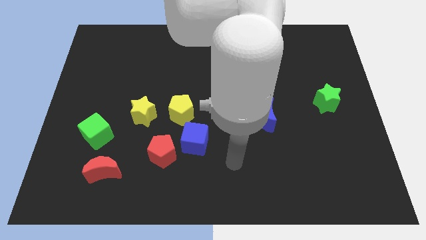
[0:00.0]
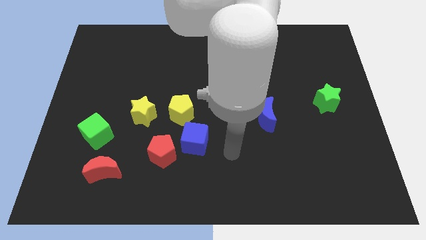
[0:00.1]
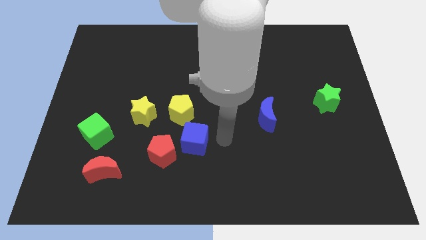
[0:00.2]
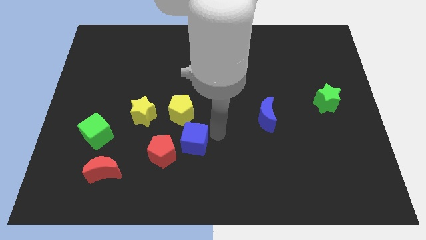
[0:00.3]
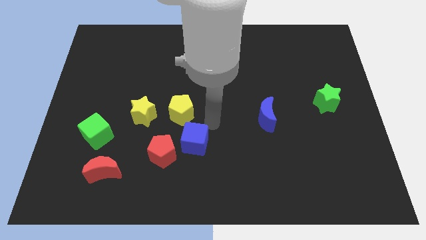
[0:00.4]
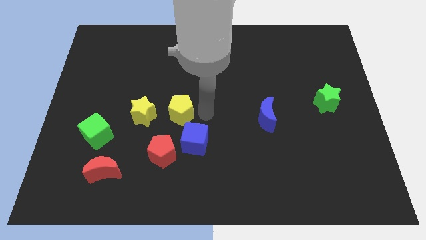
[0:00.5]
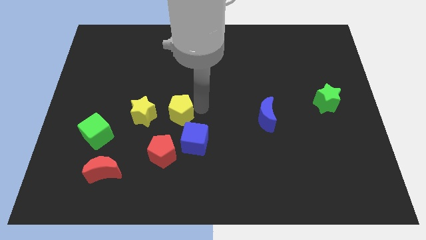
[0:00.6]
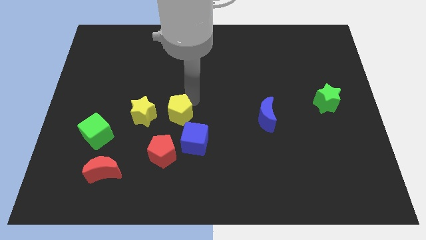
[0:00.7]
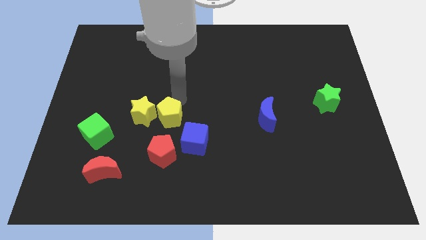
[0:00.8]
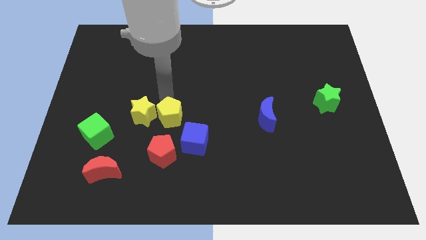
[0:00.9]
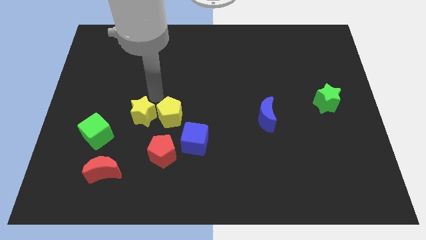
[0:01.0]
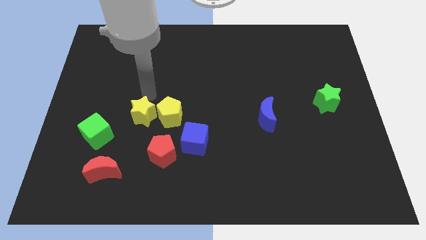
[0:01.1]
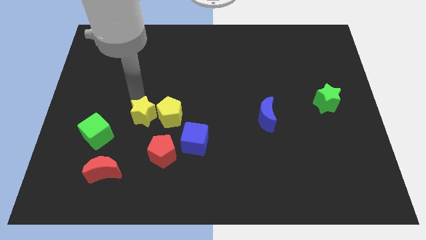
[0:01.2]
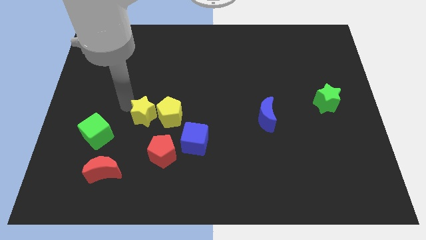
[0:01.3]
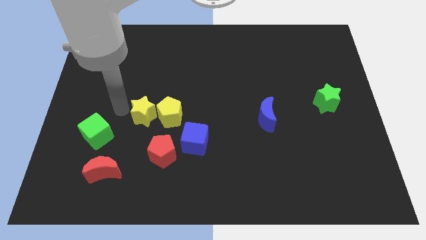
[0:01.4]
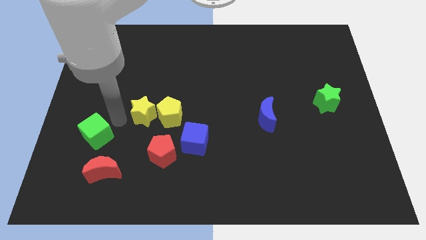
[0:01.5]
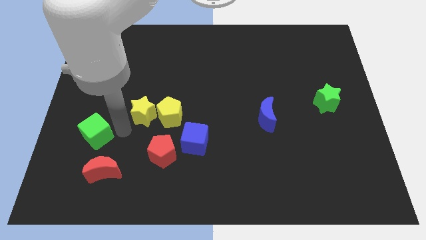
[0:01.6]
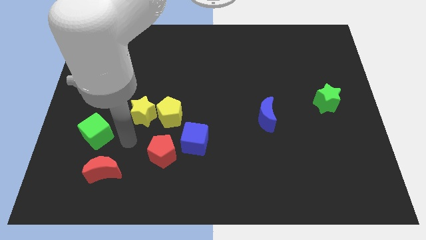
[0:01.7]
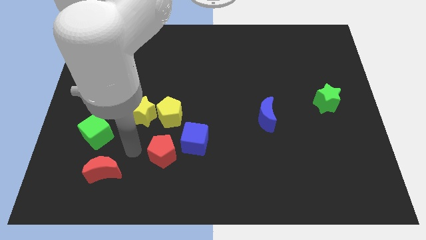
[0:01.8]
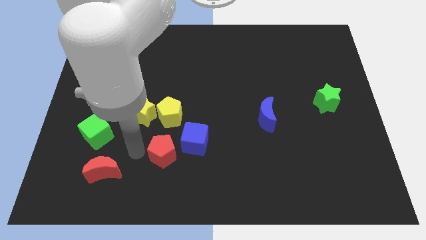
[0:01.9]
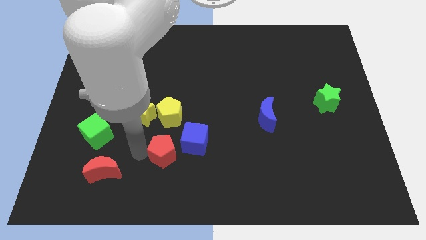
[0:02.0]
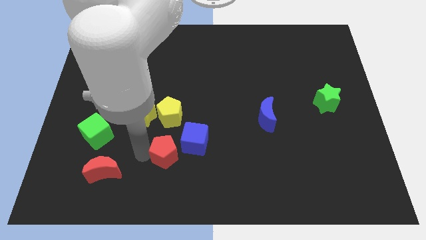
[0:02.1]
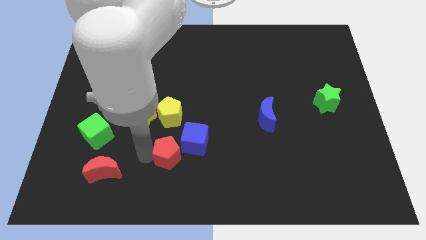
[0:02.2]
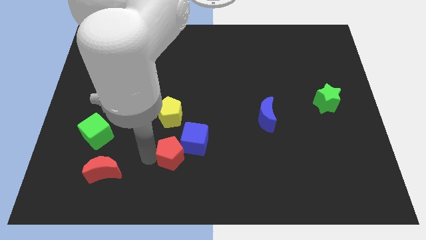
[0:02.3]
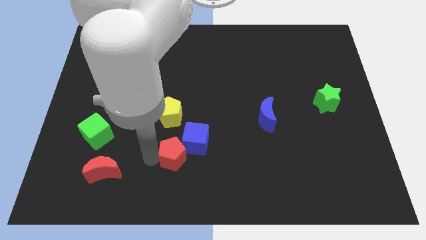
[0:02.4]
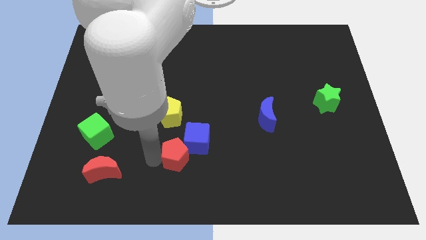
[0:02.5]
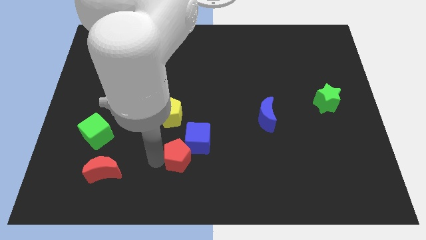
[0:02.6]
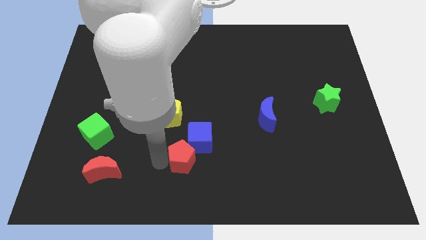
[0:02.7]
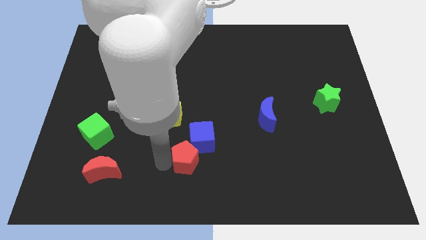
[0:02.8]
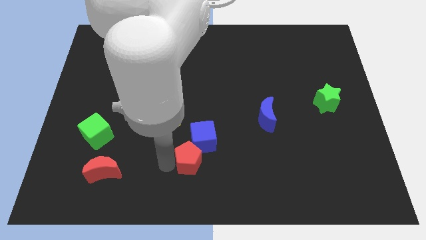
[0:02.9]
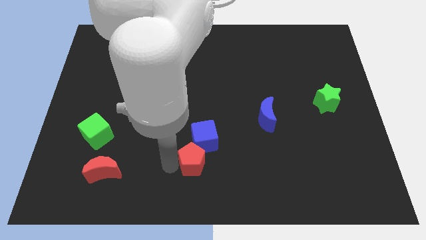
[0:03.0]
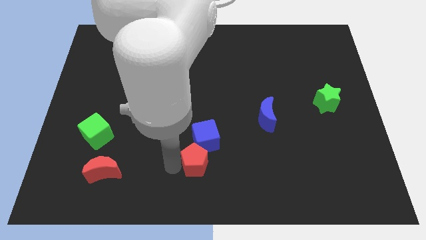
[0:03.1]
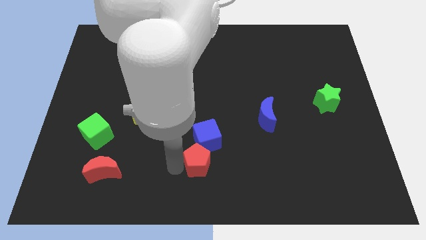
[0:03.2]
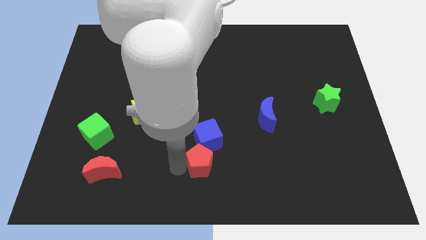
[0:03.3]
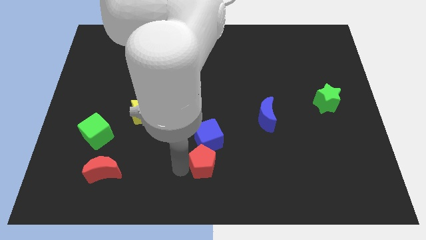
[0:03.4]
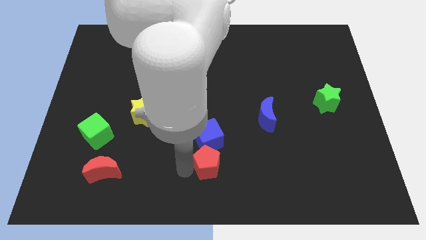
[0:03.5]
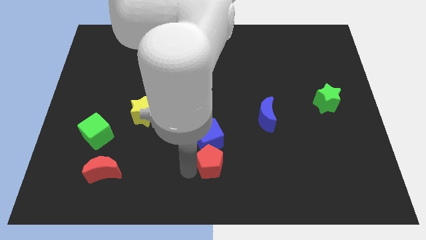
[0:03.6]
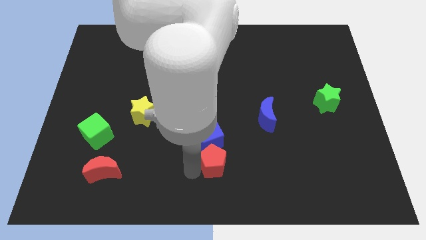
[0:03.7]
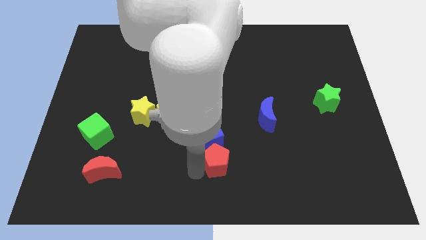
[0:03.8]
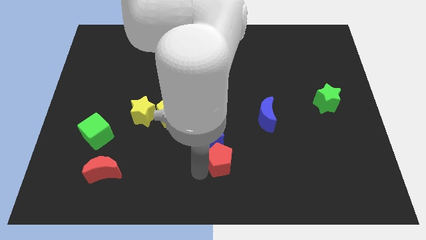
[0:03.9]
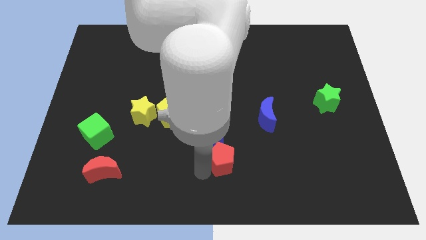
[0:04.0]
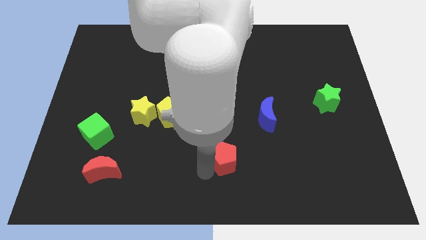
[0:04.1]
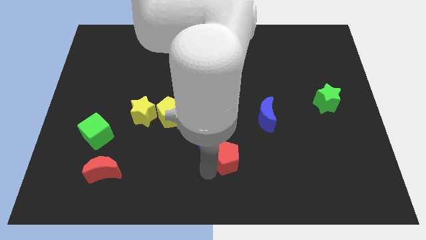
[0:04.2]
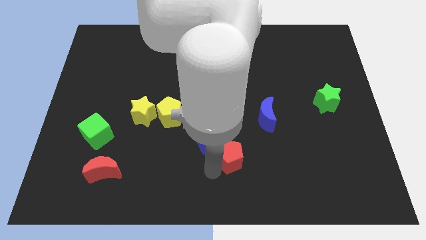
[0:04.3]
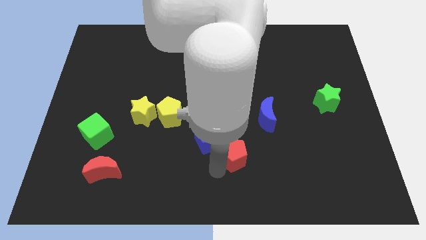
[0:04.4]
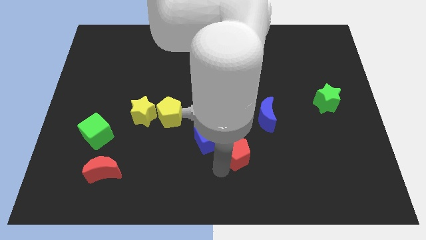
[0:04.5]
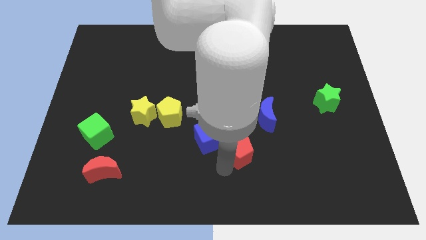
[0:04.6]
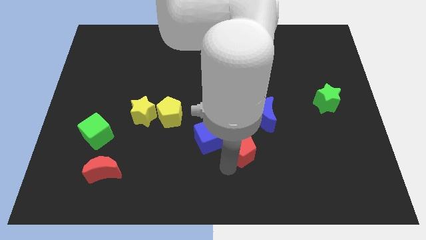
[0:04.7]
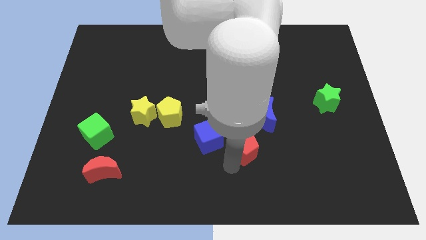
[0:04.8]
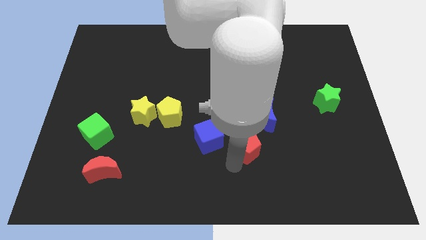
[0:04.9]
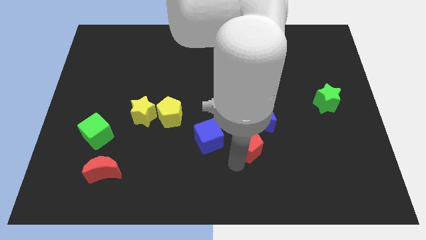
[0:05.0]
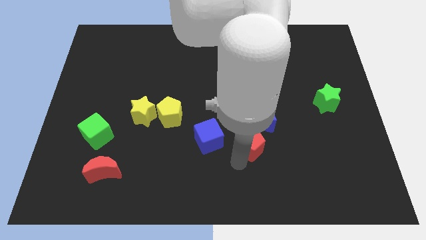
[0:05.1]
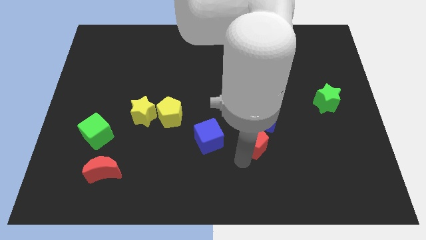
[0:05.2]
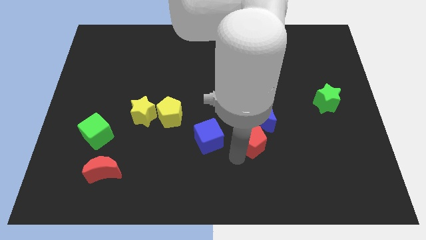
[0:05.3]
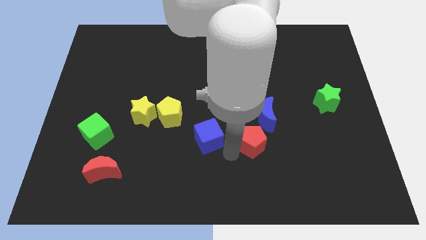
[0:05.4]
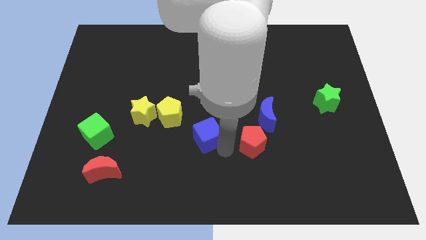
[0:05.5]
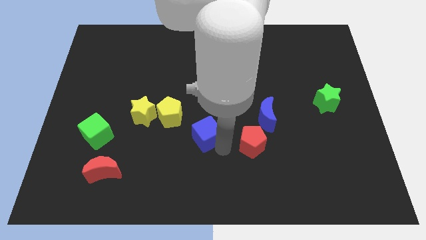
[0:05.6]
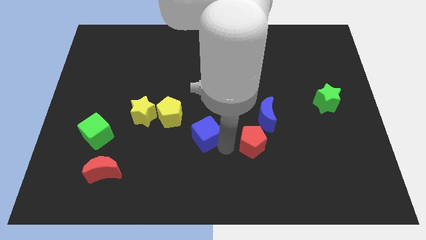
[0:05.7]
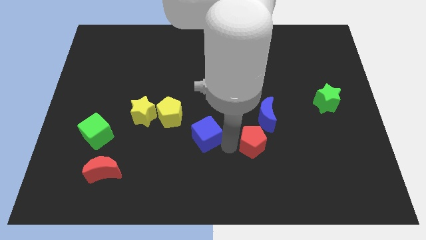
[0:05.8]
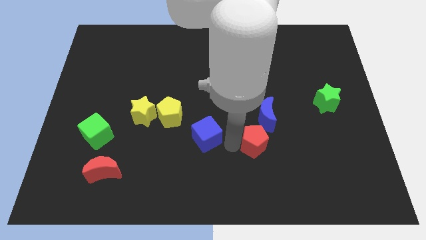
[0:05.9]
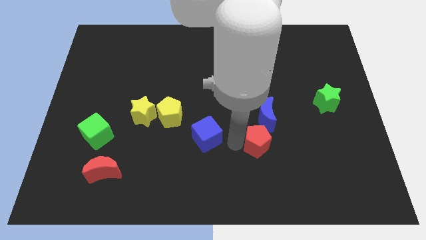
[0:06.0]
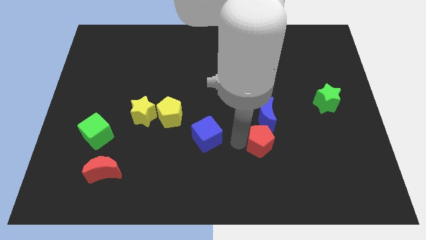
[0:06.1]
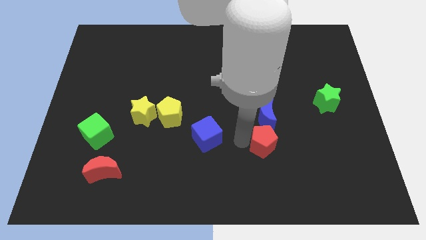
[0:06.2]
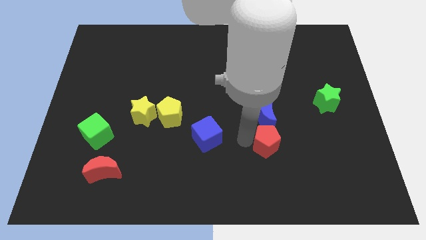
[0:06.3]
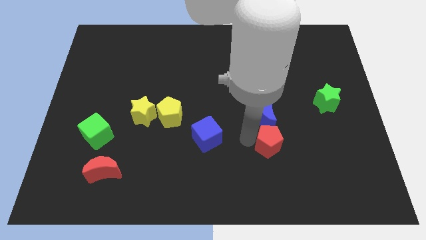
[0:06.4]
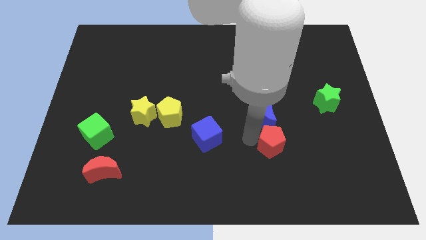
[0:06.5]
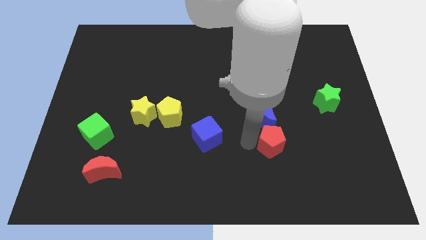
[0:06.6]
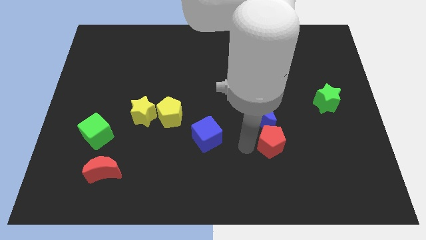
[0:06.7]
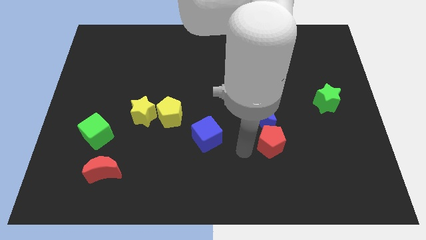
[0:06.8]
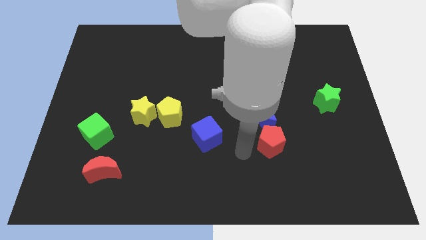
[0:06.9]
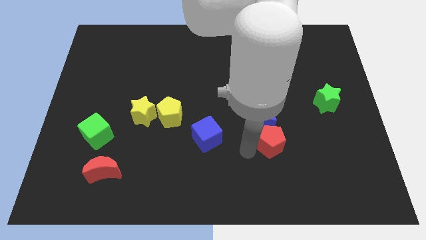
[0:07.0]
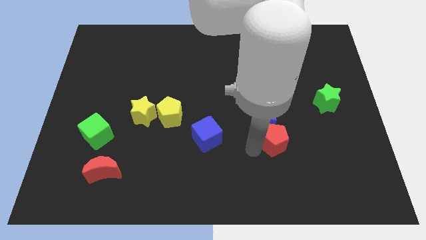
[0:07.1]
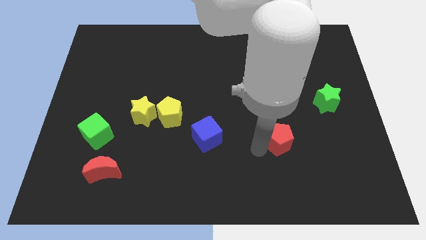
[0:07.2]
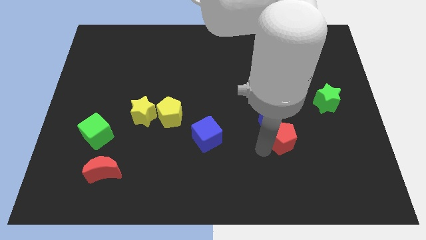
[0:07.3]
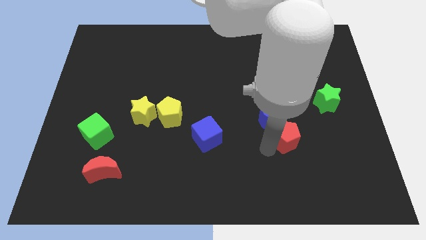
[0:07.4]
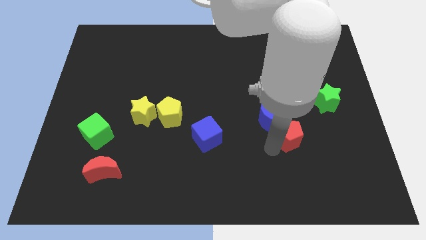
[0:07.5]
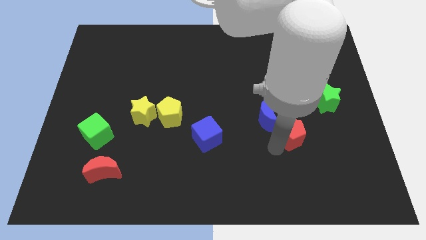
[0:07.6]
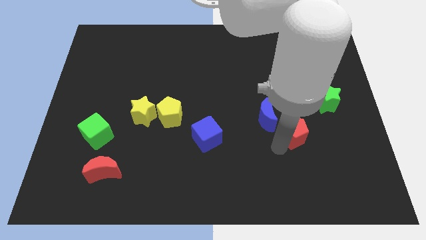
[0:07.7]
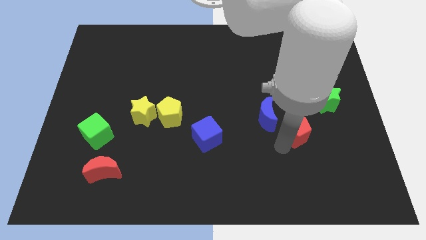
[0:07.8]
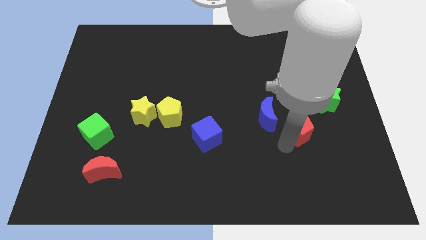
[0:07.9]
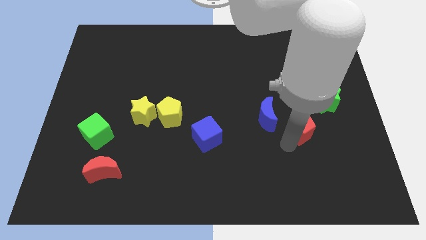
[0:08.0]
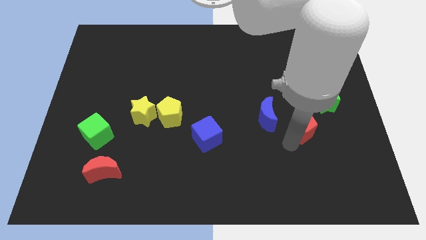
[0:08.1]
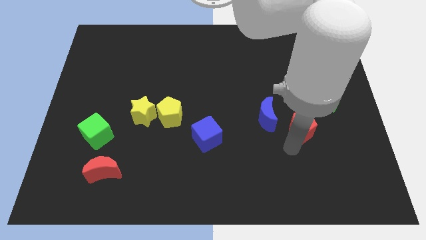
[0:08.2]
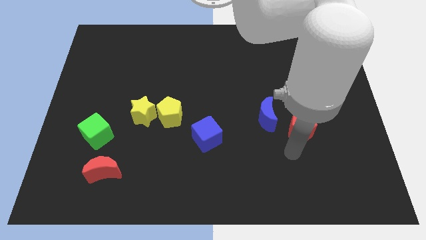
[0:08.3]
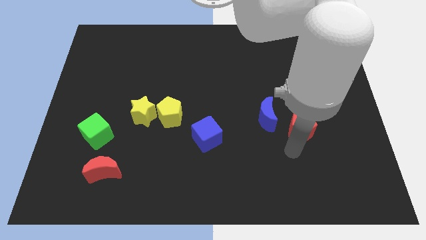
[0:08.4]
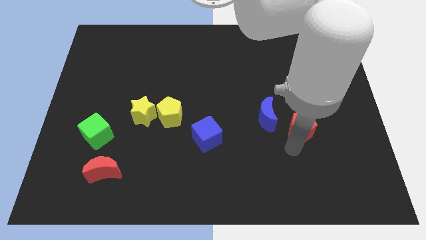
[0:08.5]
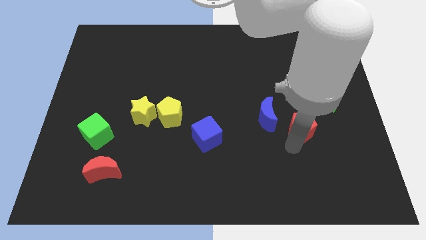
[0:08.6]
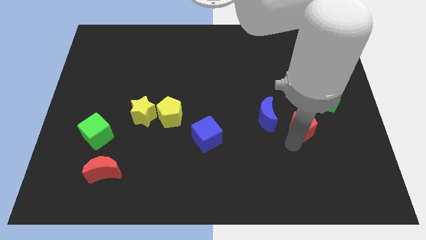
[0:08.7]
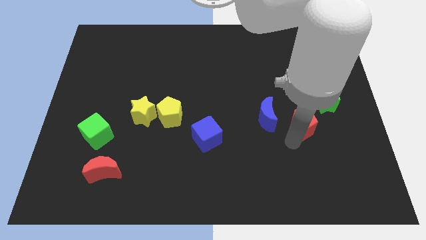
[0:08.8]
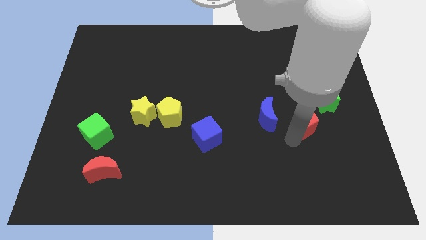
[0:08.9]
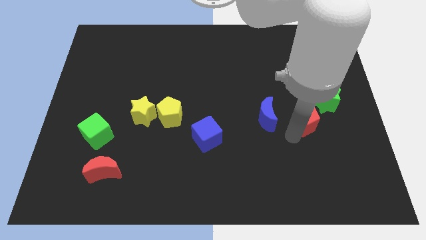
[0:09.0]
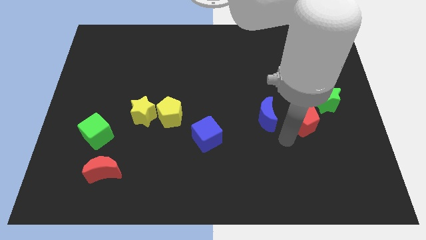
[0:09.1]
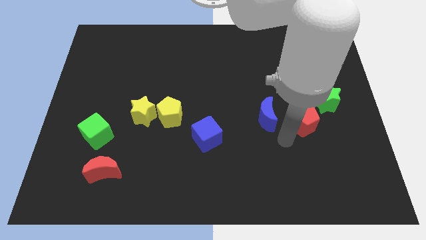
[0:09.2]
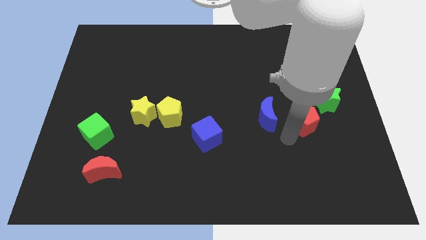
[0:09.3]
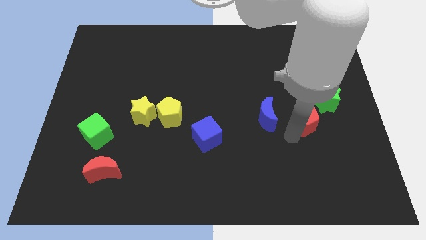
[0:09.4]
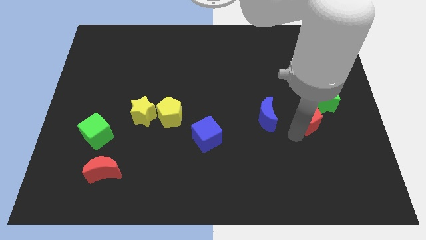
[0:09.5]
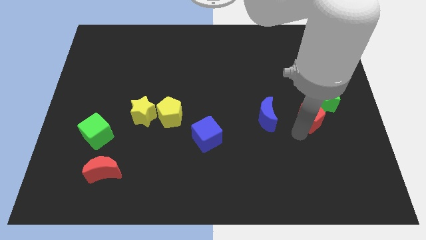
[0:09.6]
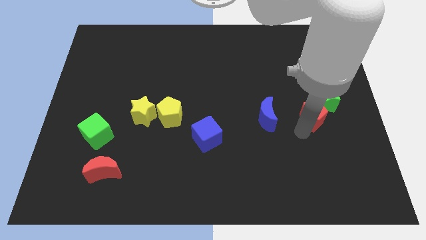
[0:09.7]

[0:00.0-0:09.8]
move the red pentagon close to the green star
